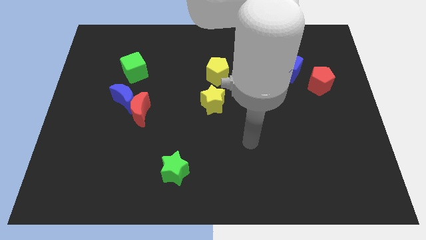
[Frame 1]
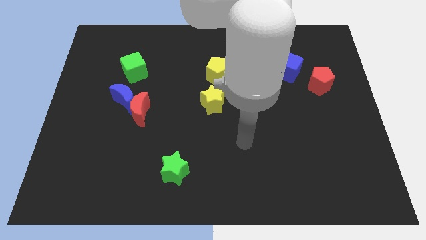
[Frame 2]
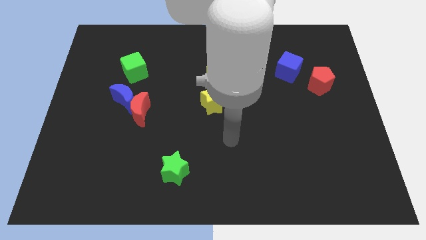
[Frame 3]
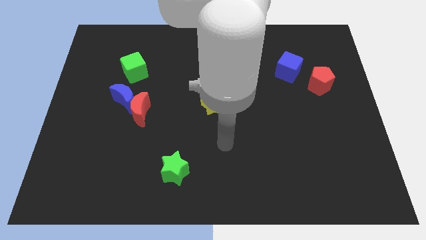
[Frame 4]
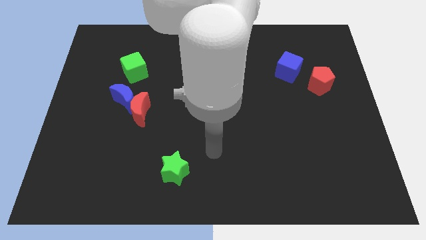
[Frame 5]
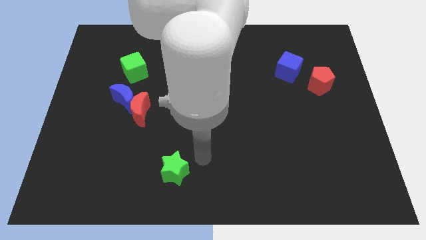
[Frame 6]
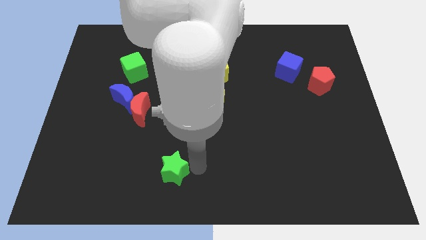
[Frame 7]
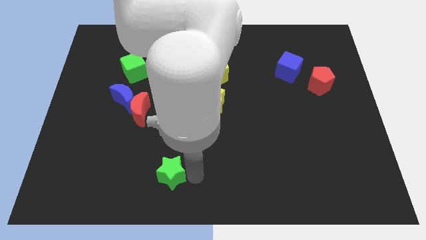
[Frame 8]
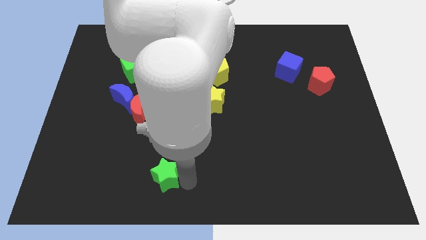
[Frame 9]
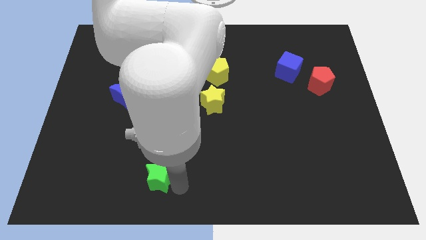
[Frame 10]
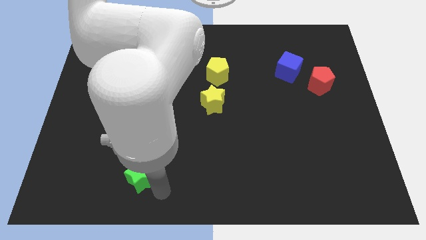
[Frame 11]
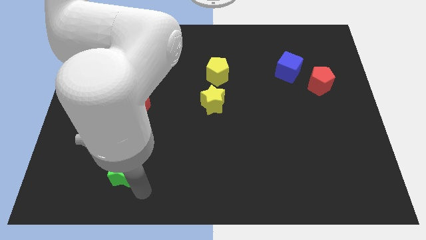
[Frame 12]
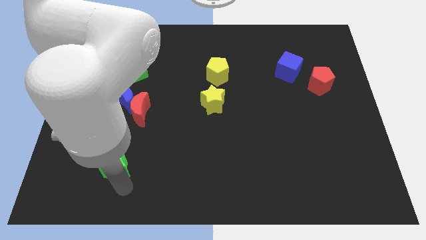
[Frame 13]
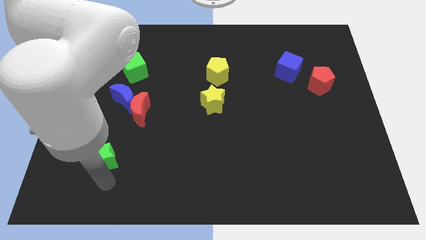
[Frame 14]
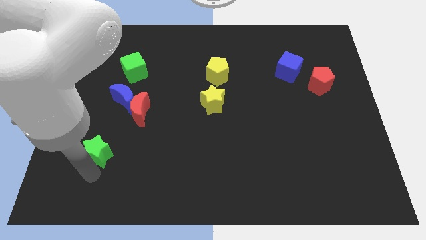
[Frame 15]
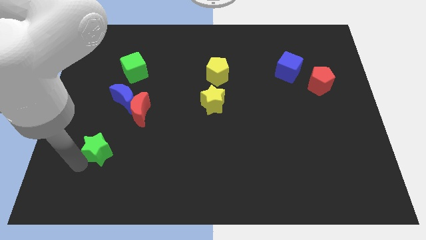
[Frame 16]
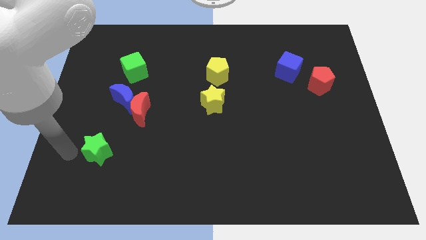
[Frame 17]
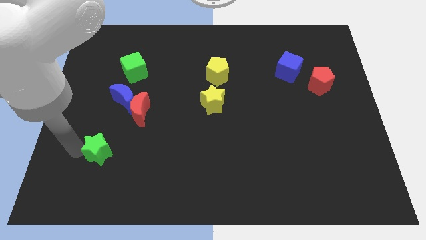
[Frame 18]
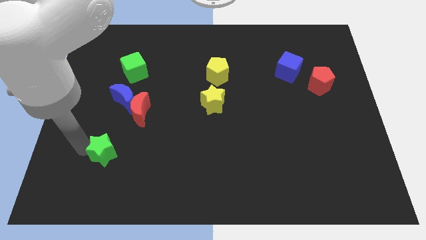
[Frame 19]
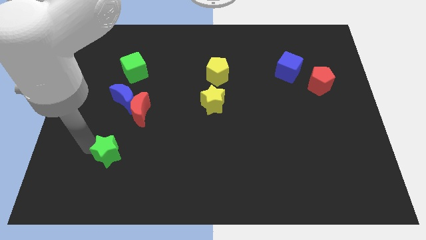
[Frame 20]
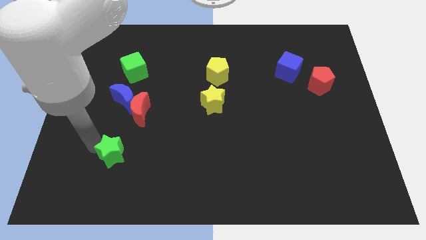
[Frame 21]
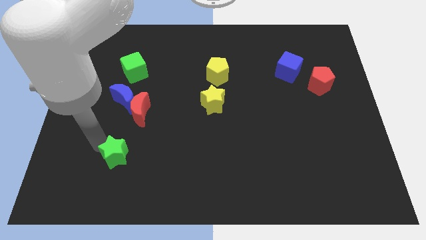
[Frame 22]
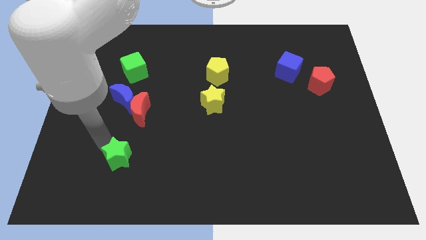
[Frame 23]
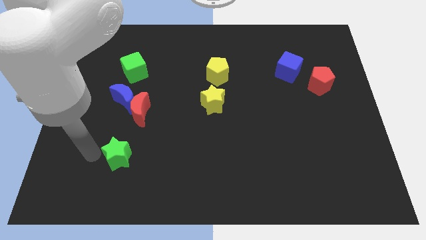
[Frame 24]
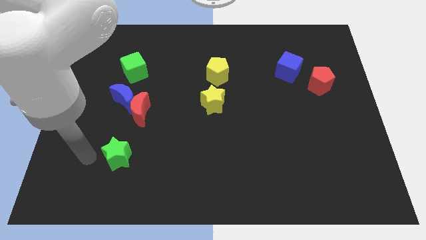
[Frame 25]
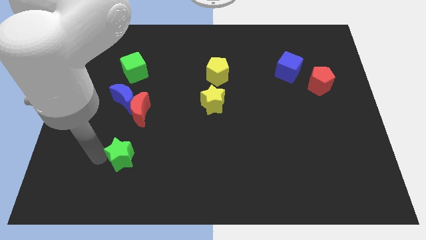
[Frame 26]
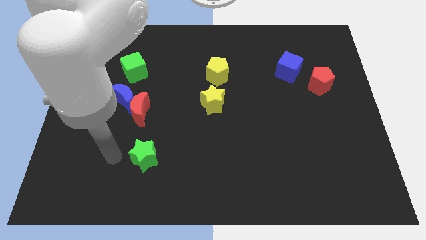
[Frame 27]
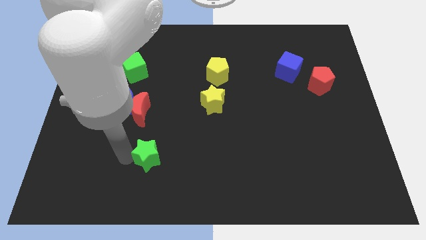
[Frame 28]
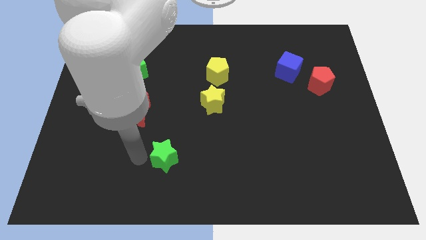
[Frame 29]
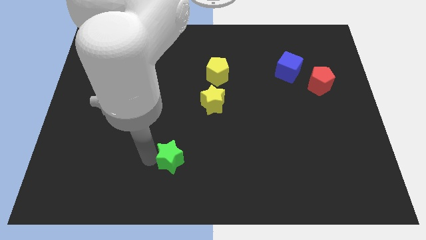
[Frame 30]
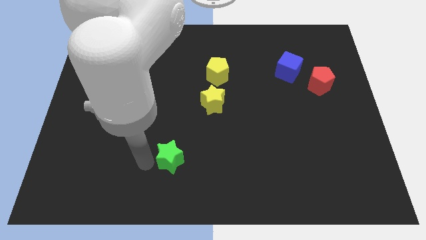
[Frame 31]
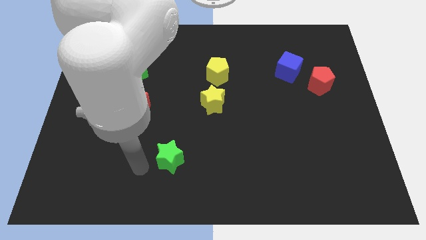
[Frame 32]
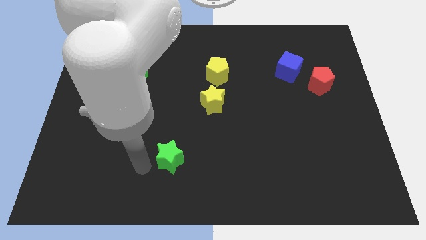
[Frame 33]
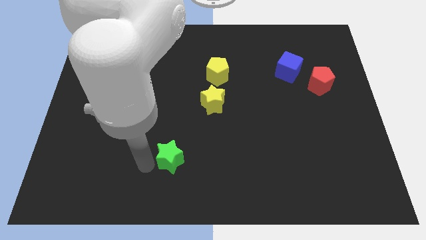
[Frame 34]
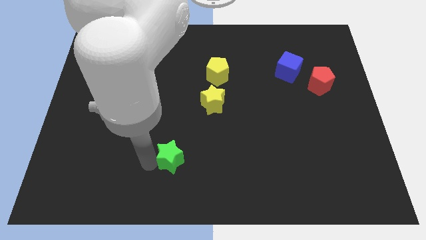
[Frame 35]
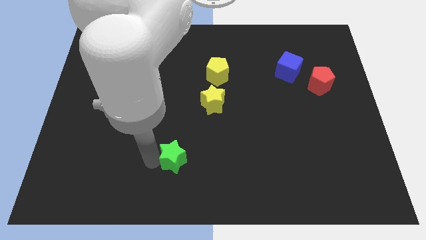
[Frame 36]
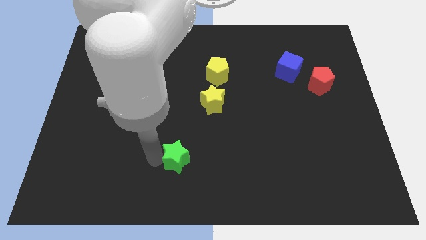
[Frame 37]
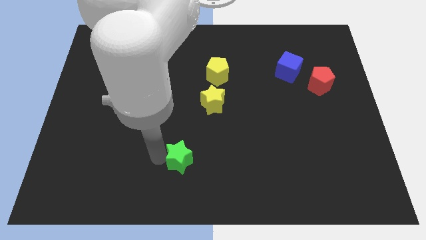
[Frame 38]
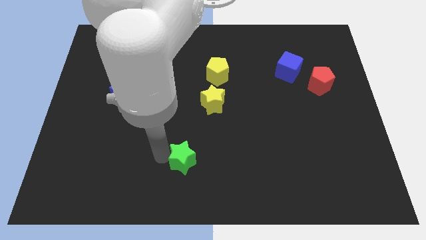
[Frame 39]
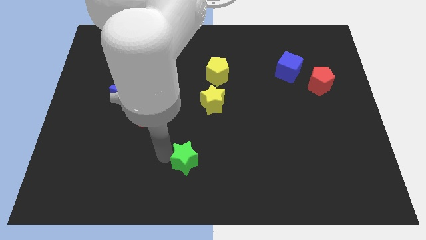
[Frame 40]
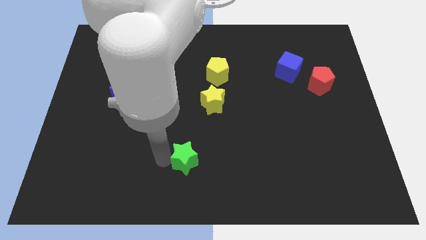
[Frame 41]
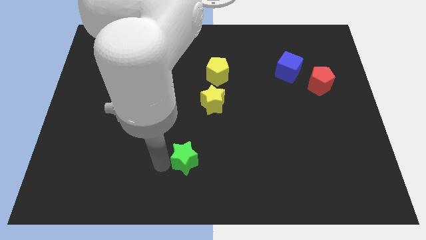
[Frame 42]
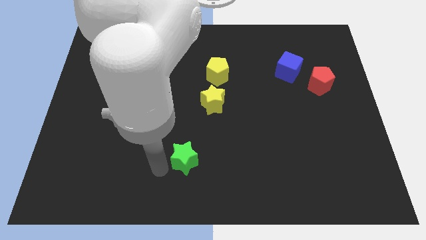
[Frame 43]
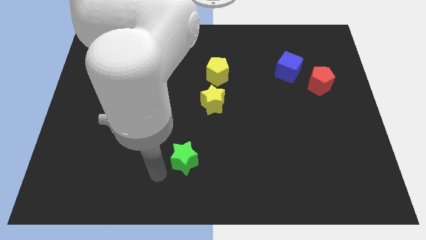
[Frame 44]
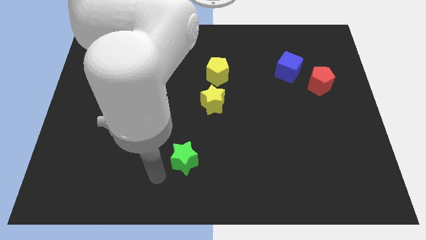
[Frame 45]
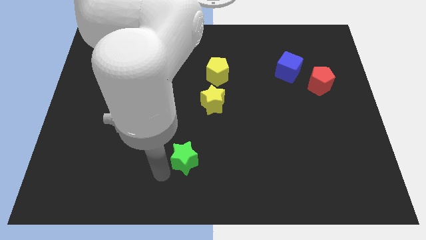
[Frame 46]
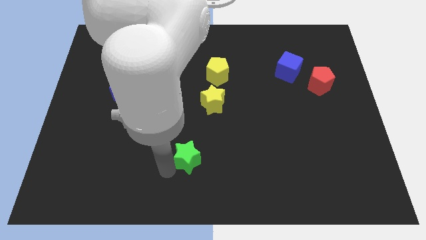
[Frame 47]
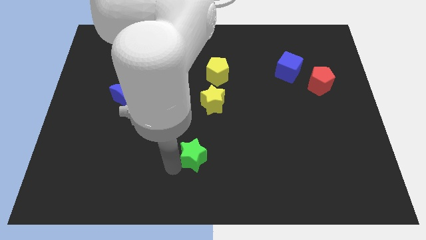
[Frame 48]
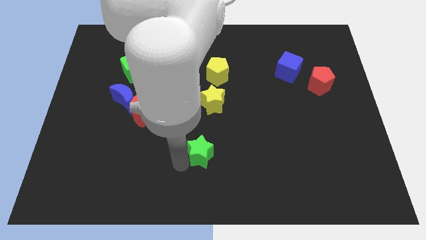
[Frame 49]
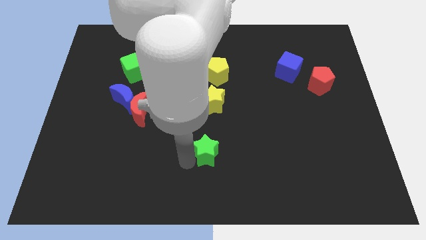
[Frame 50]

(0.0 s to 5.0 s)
push the green star diagonally upwards and right a bit

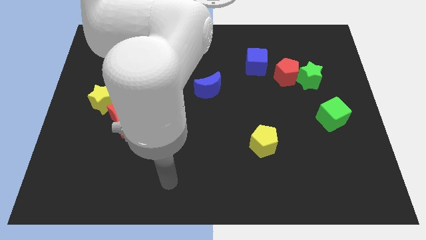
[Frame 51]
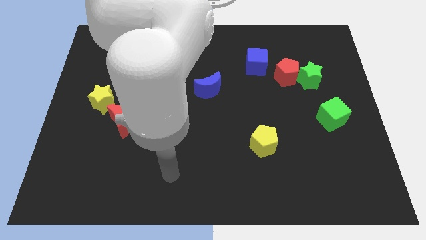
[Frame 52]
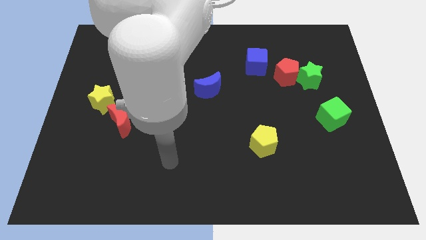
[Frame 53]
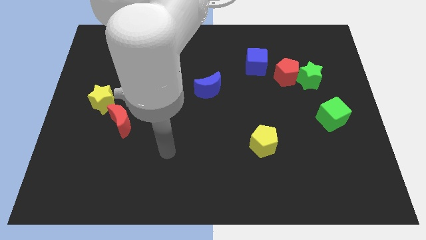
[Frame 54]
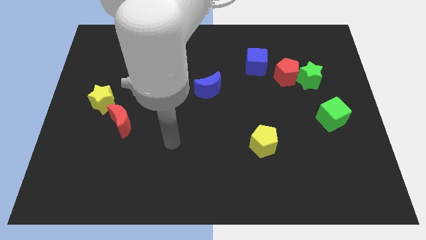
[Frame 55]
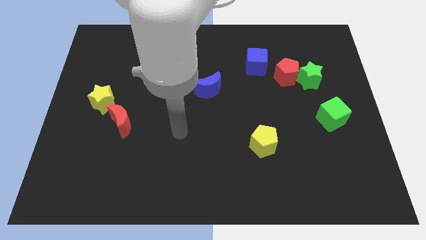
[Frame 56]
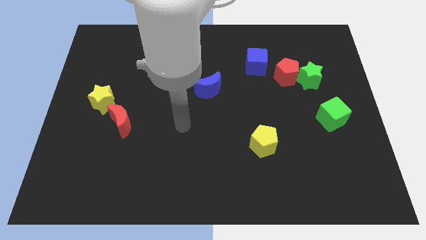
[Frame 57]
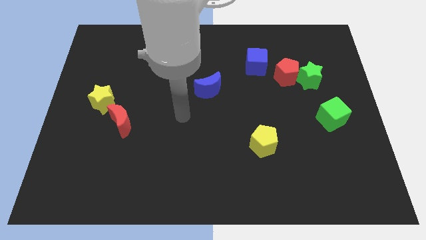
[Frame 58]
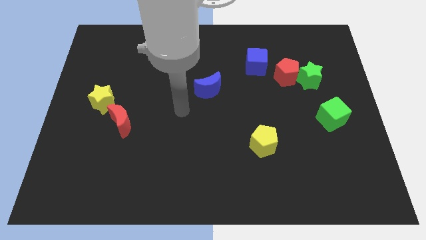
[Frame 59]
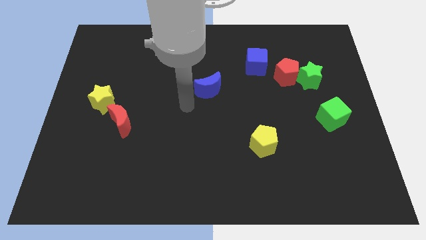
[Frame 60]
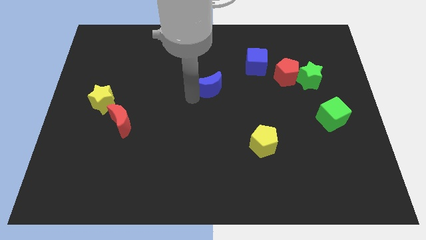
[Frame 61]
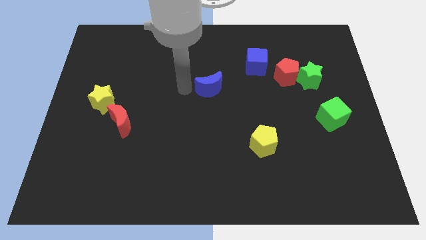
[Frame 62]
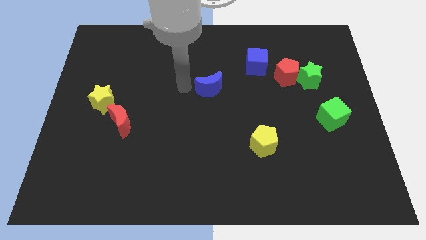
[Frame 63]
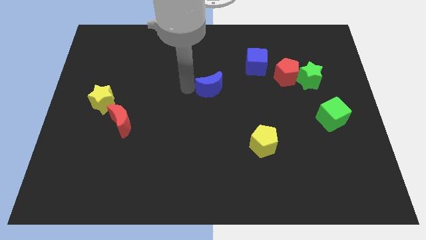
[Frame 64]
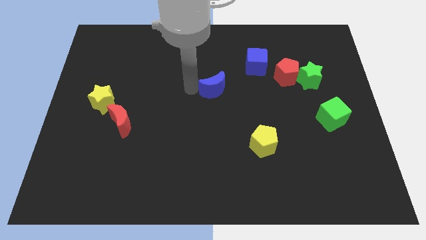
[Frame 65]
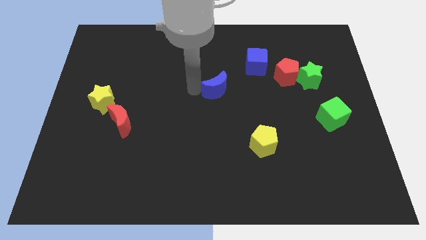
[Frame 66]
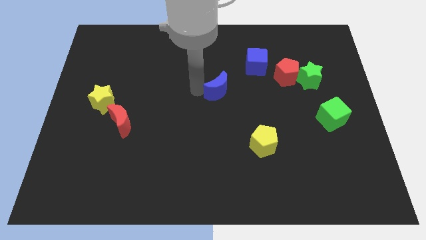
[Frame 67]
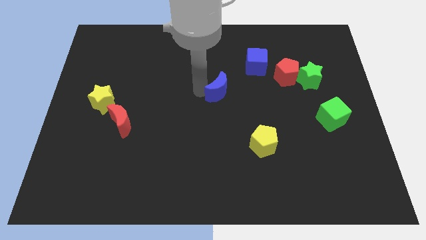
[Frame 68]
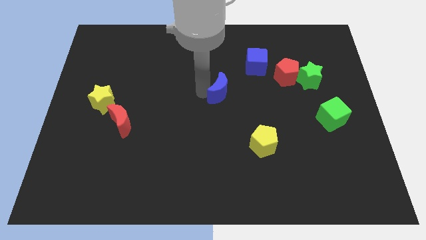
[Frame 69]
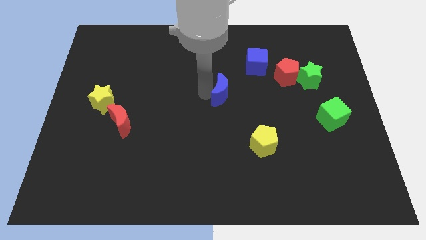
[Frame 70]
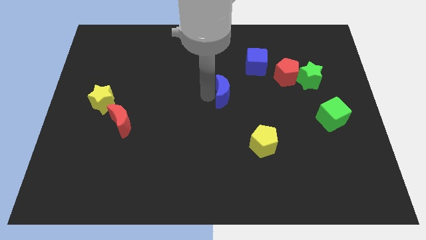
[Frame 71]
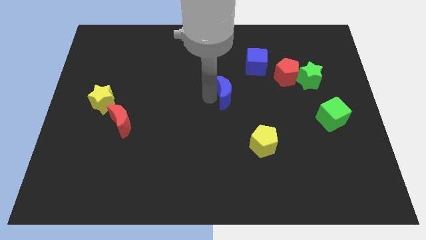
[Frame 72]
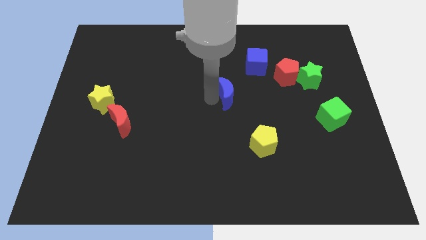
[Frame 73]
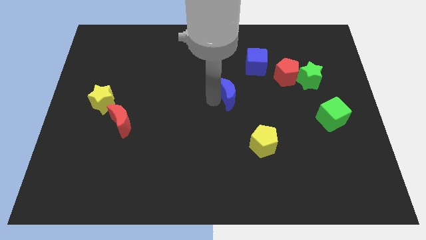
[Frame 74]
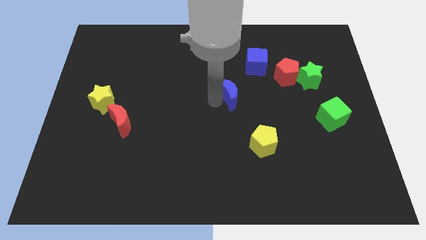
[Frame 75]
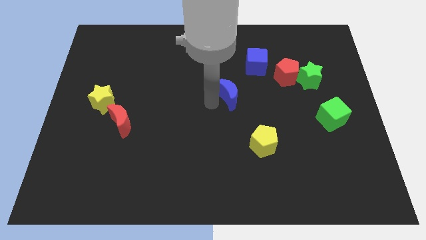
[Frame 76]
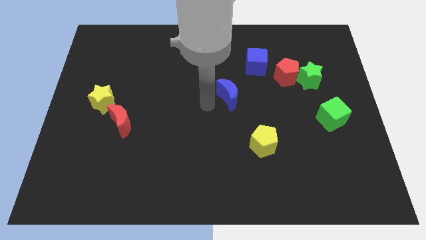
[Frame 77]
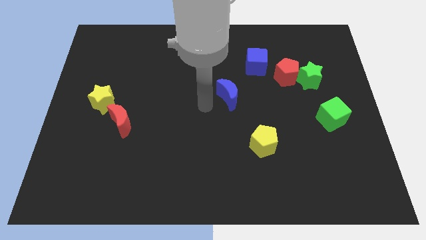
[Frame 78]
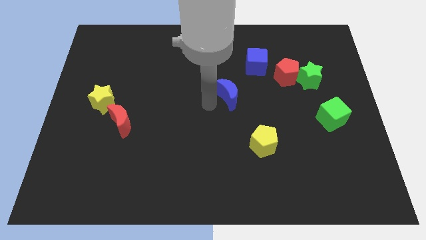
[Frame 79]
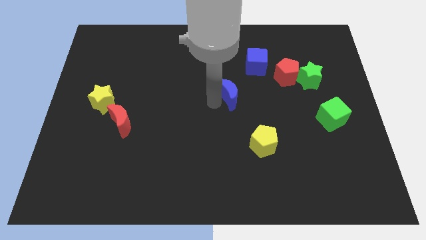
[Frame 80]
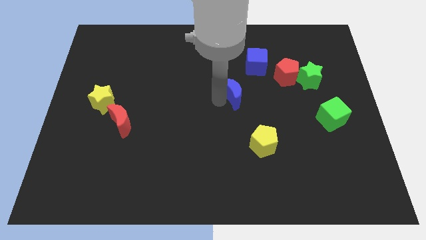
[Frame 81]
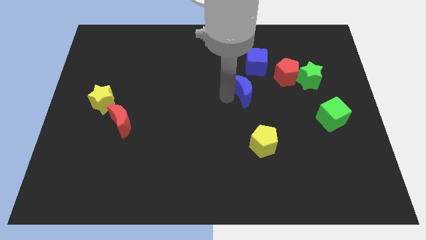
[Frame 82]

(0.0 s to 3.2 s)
slightly move the blue moon to the right
